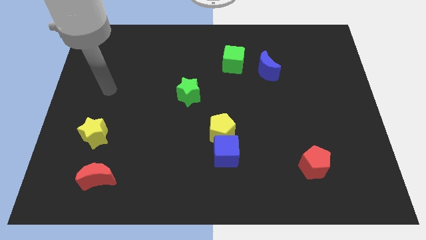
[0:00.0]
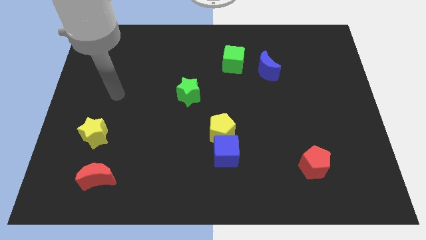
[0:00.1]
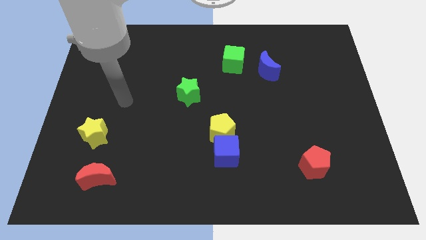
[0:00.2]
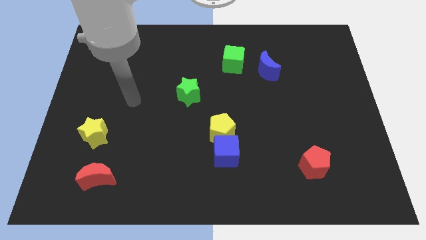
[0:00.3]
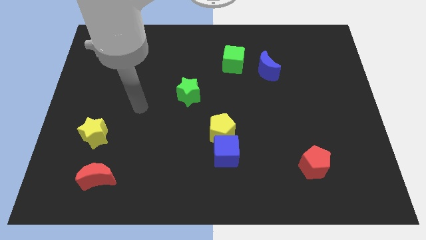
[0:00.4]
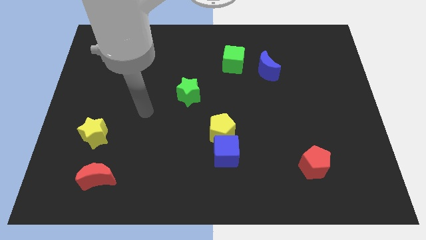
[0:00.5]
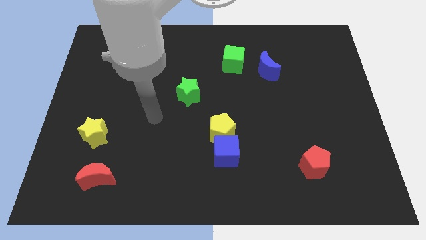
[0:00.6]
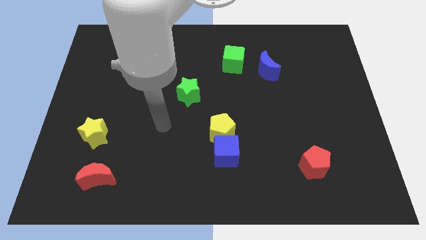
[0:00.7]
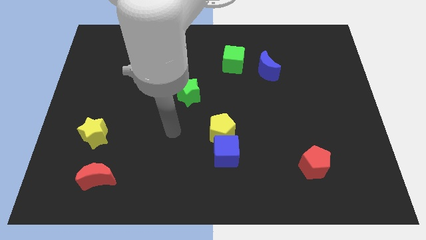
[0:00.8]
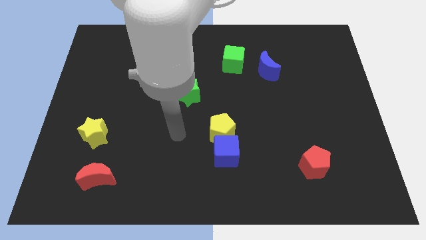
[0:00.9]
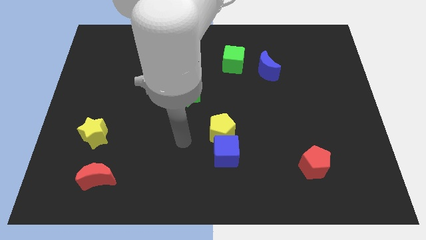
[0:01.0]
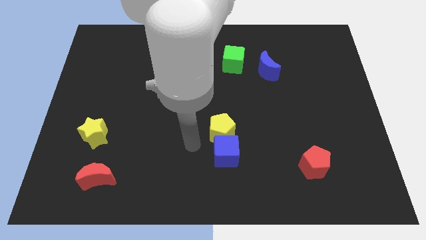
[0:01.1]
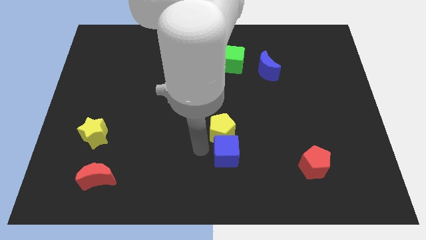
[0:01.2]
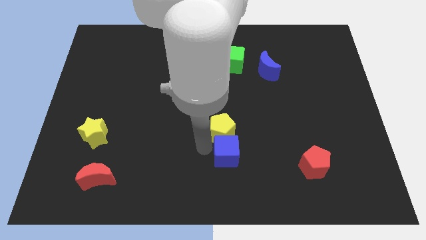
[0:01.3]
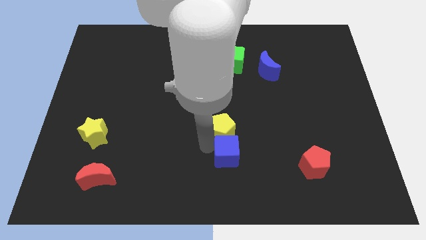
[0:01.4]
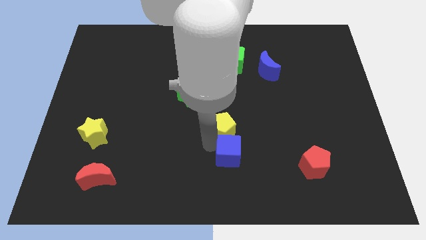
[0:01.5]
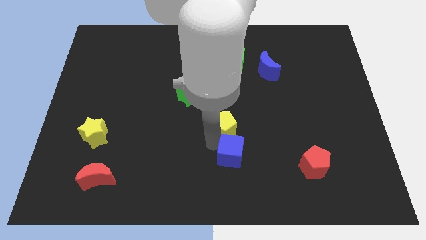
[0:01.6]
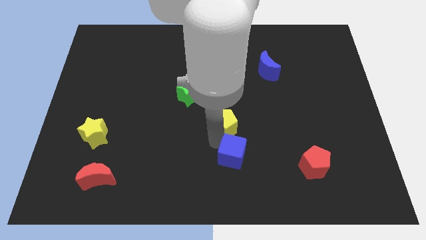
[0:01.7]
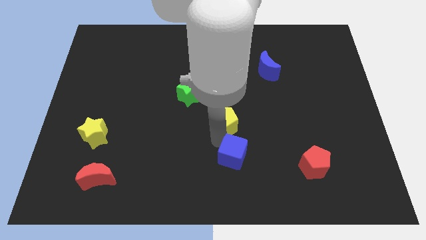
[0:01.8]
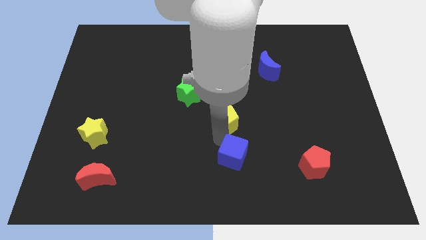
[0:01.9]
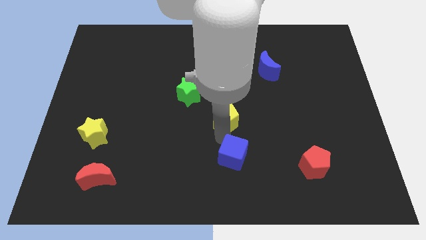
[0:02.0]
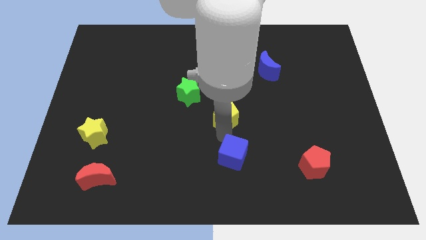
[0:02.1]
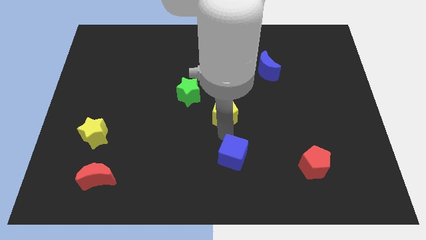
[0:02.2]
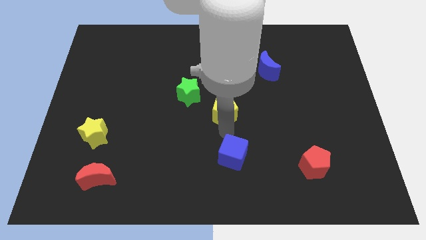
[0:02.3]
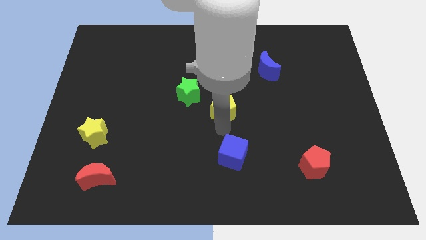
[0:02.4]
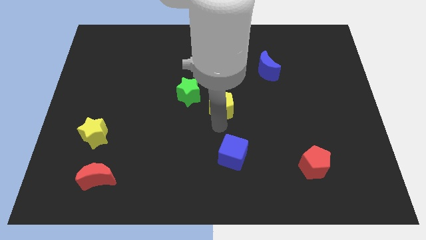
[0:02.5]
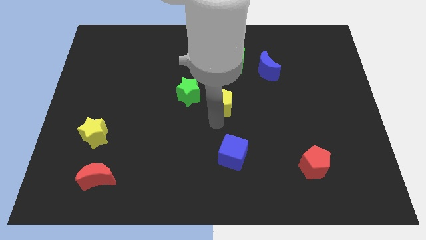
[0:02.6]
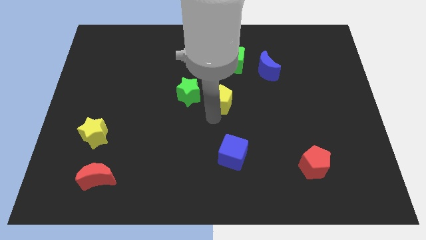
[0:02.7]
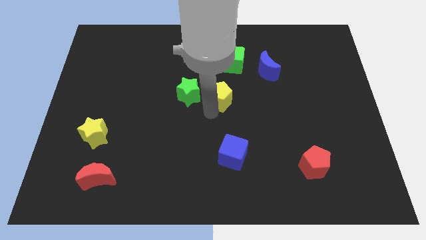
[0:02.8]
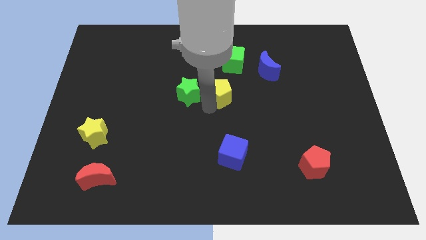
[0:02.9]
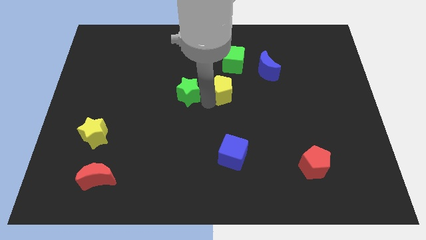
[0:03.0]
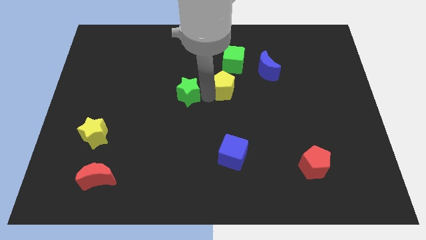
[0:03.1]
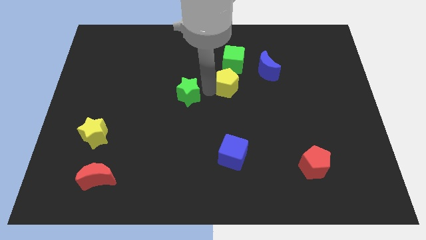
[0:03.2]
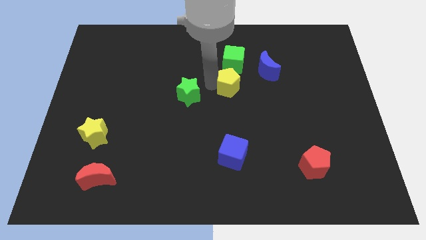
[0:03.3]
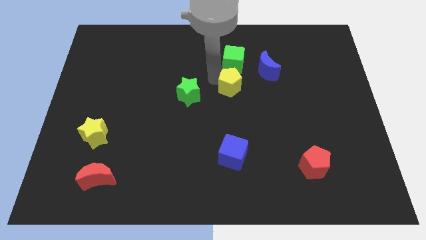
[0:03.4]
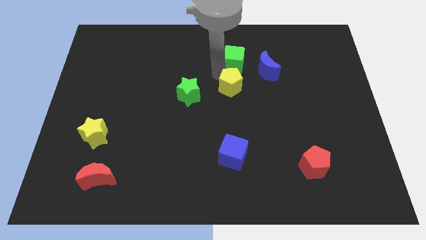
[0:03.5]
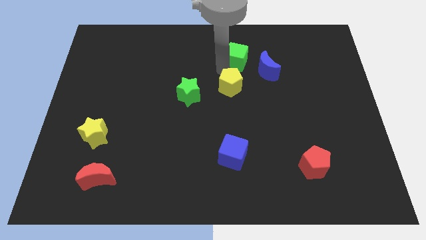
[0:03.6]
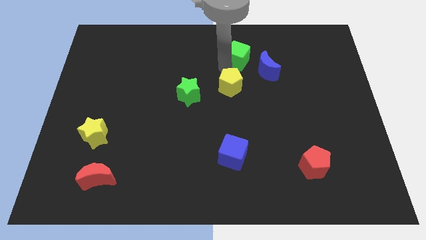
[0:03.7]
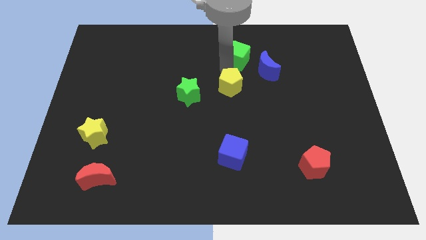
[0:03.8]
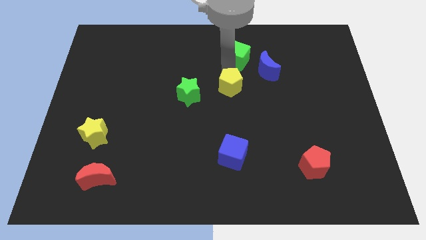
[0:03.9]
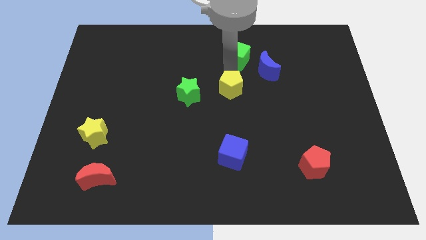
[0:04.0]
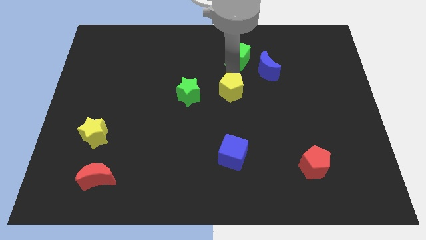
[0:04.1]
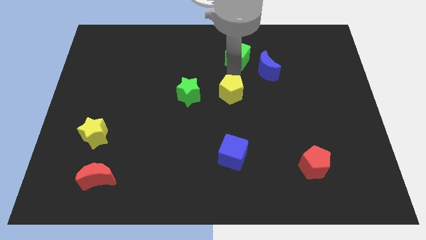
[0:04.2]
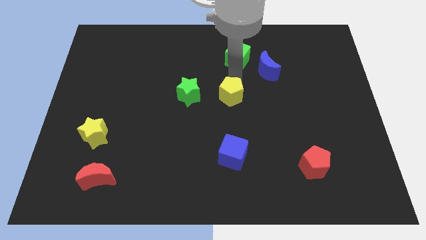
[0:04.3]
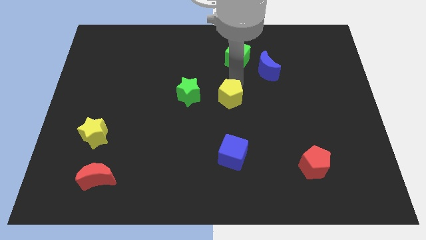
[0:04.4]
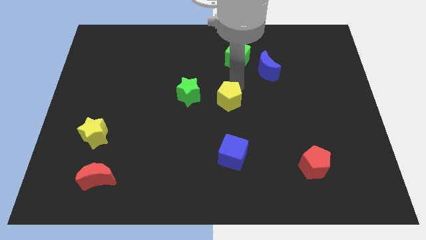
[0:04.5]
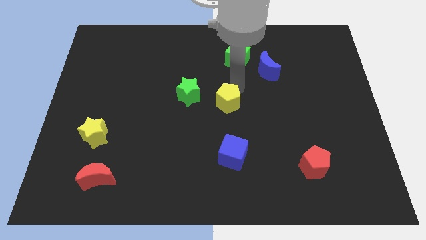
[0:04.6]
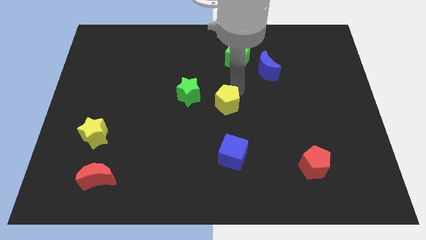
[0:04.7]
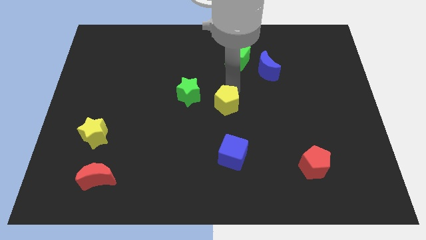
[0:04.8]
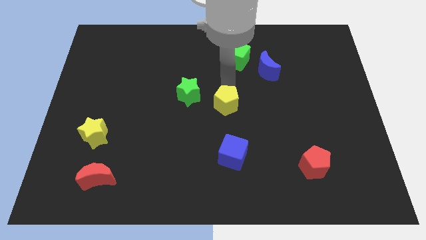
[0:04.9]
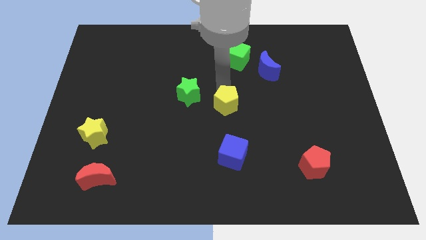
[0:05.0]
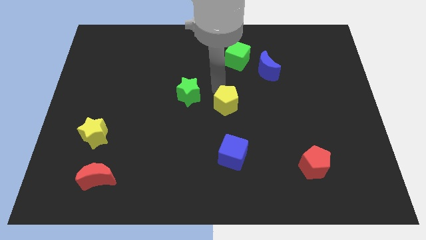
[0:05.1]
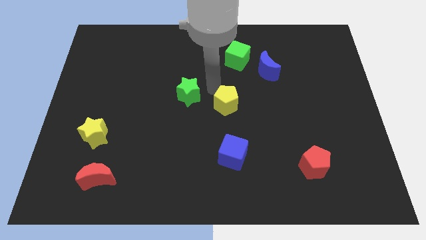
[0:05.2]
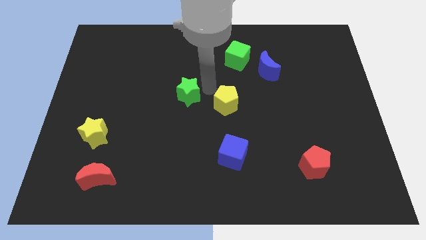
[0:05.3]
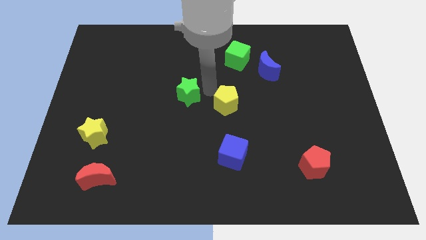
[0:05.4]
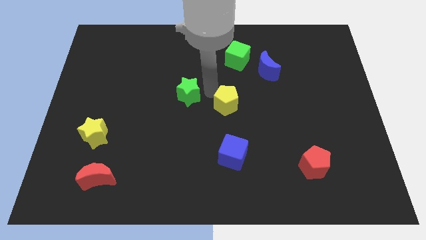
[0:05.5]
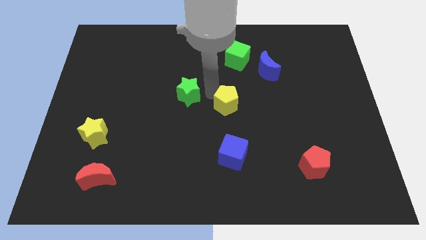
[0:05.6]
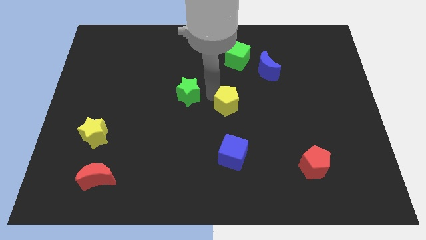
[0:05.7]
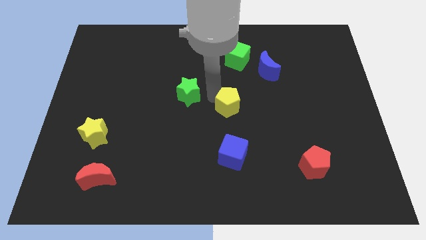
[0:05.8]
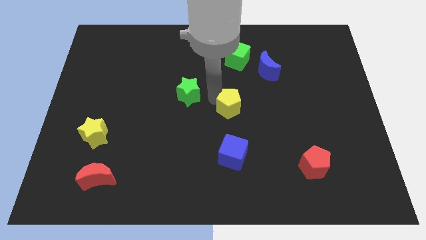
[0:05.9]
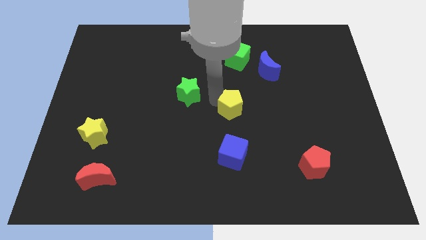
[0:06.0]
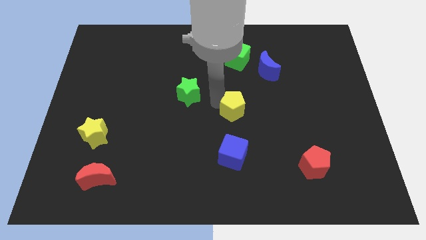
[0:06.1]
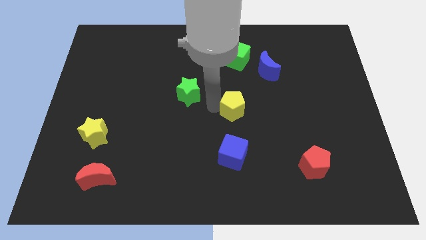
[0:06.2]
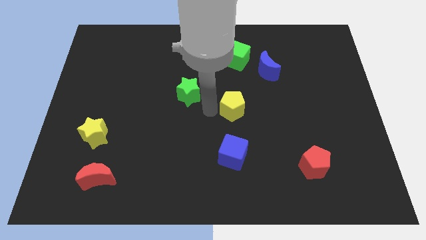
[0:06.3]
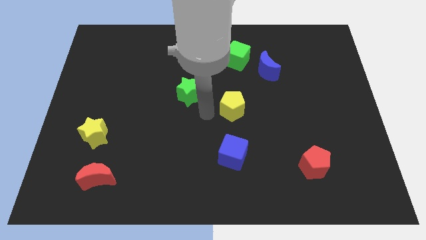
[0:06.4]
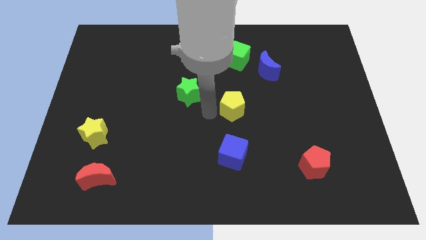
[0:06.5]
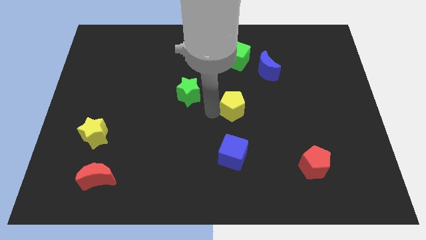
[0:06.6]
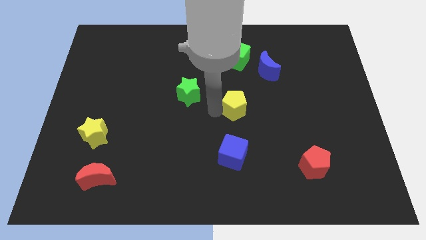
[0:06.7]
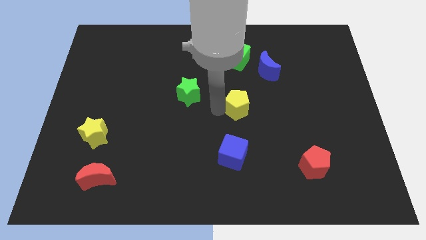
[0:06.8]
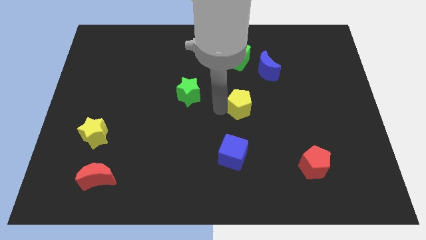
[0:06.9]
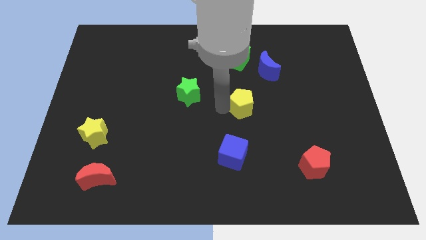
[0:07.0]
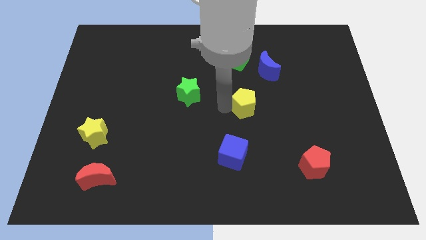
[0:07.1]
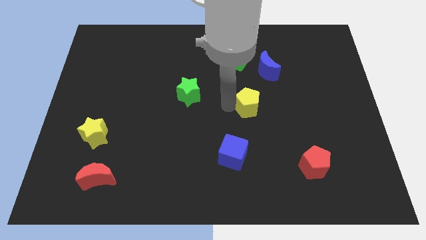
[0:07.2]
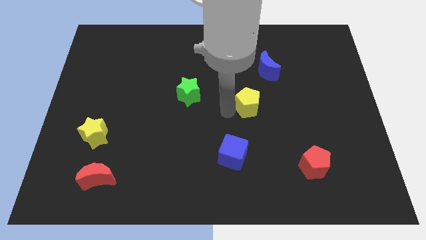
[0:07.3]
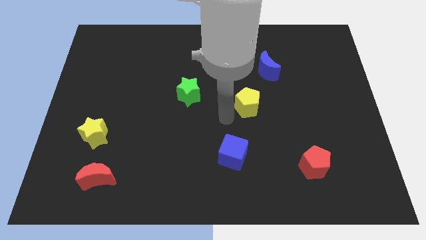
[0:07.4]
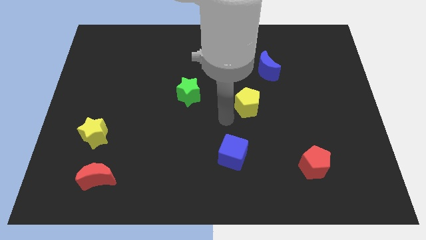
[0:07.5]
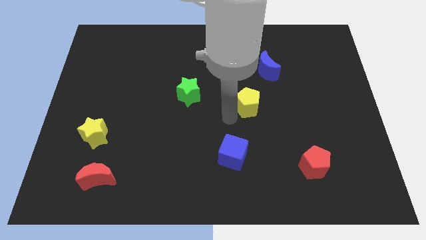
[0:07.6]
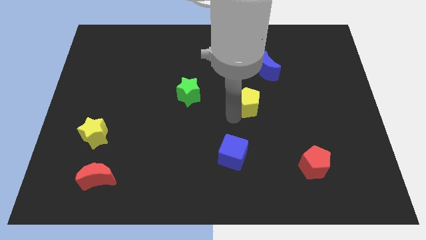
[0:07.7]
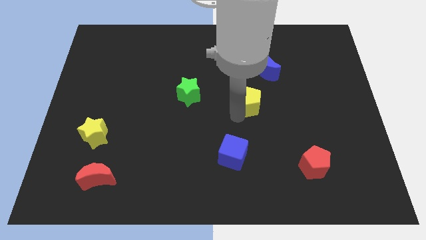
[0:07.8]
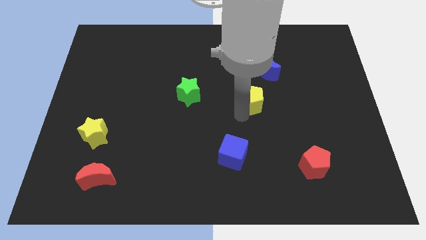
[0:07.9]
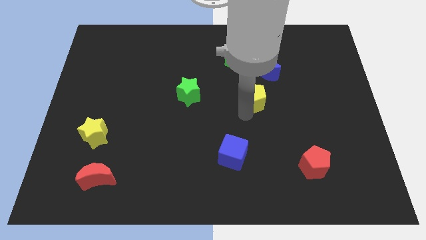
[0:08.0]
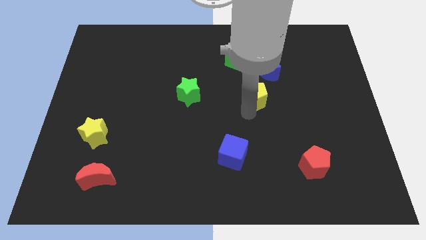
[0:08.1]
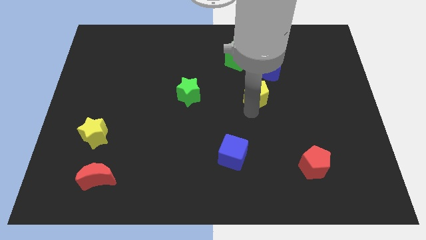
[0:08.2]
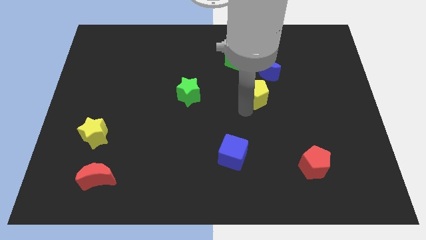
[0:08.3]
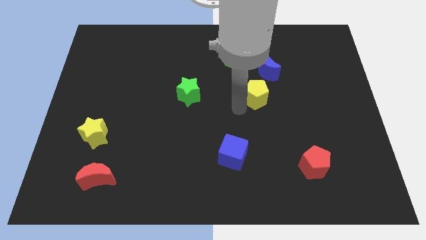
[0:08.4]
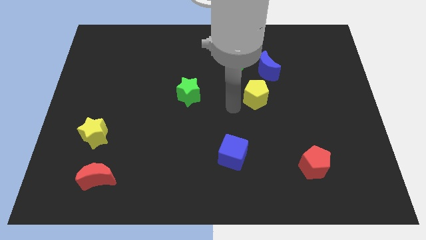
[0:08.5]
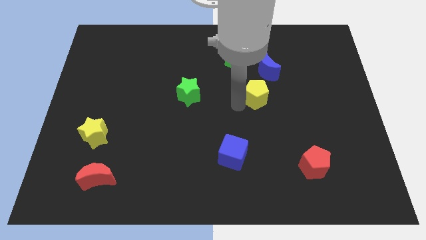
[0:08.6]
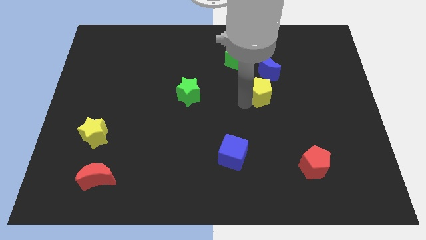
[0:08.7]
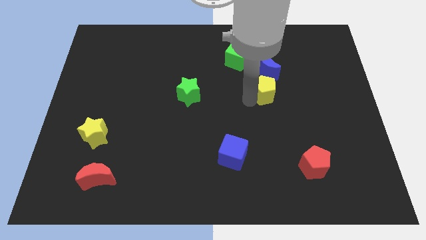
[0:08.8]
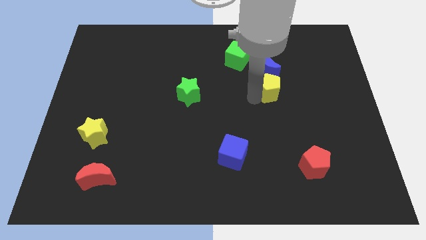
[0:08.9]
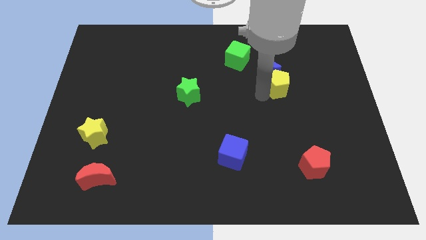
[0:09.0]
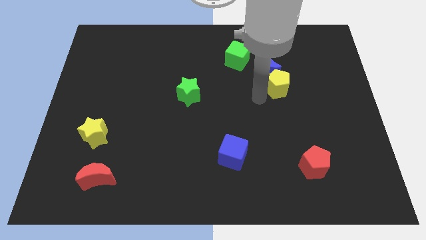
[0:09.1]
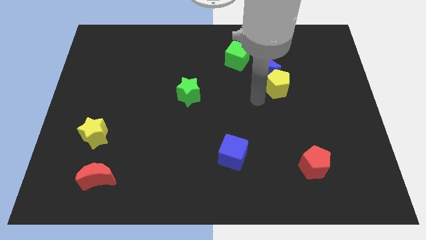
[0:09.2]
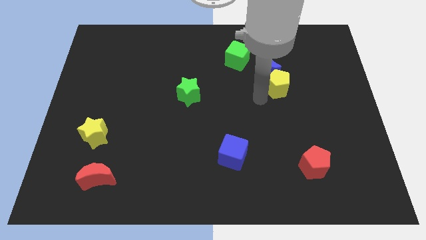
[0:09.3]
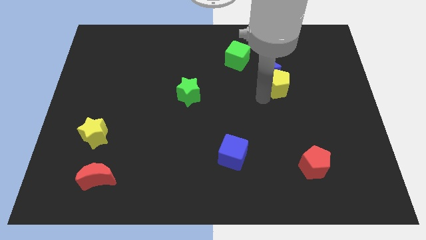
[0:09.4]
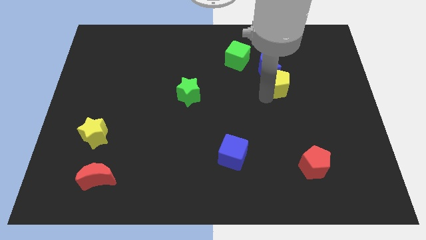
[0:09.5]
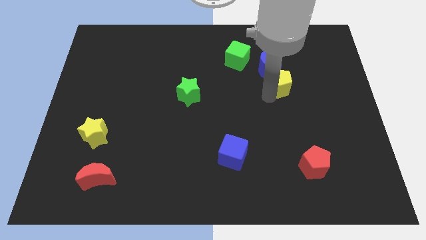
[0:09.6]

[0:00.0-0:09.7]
push the yellow pentagon upwards and then right
